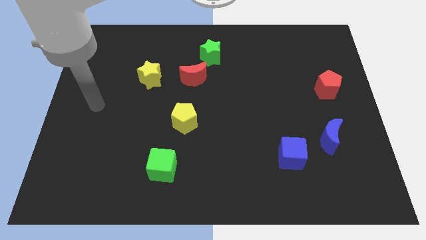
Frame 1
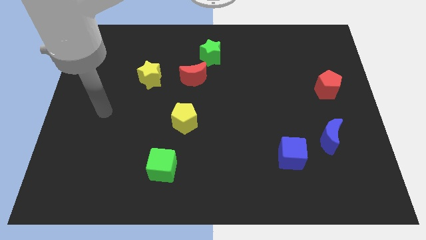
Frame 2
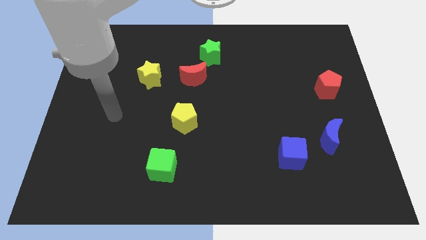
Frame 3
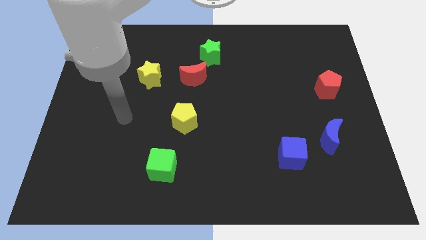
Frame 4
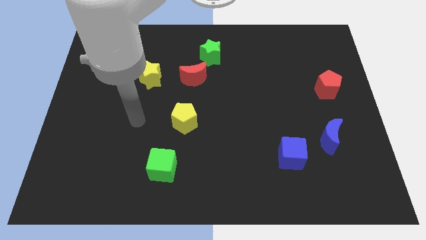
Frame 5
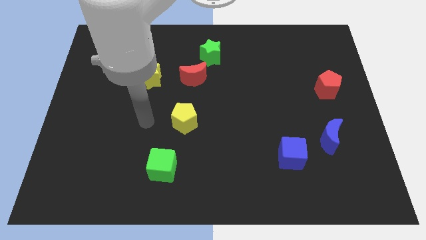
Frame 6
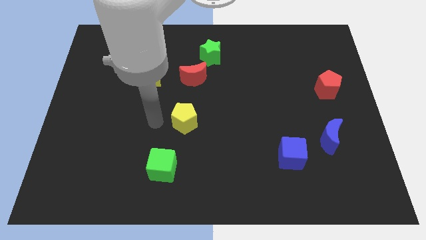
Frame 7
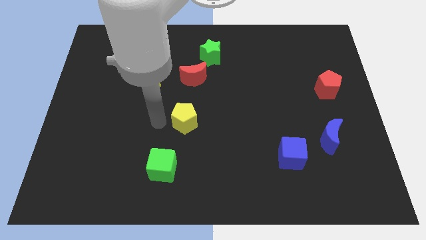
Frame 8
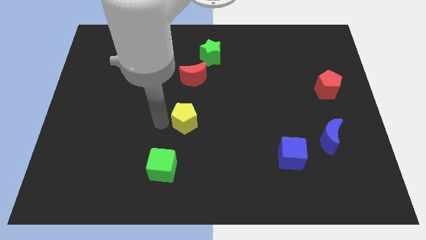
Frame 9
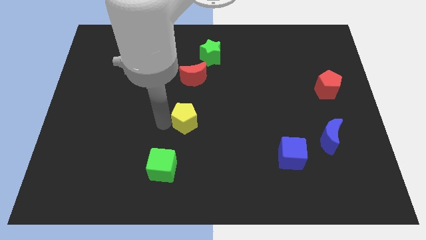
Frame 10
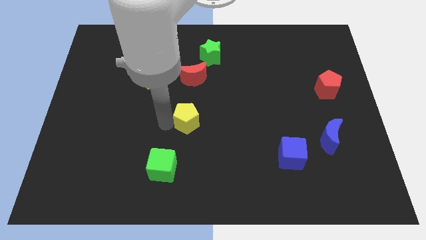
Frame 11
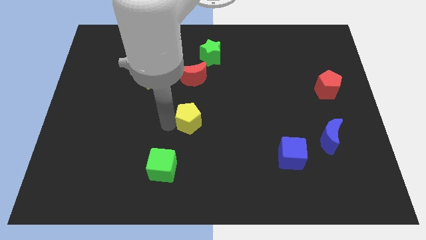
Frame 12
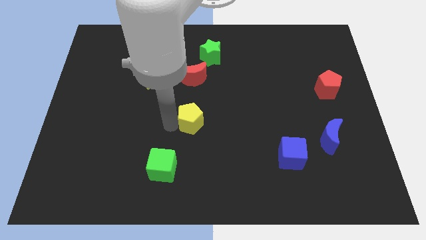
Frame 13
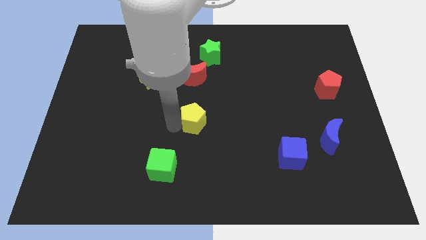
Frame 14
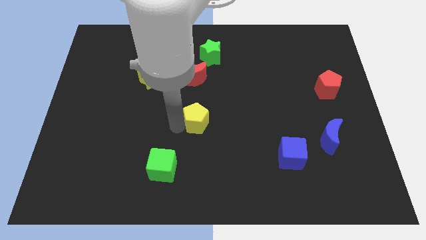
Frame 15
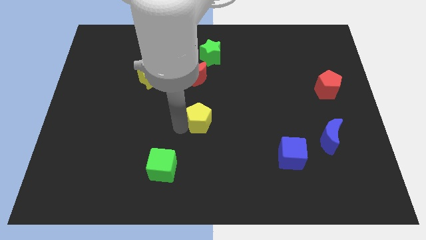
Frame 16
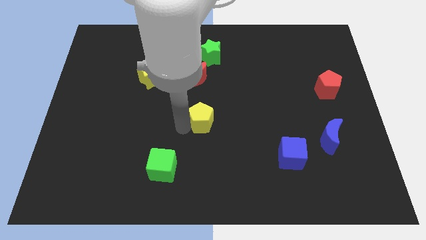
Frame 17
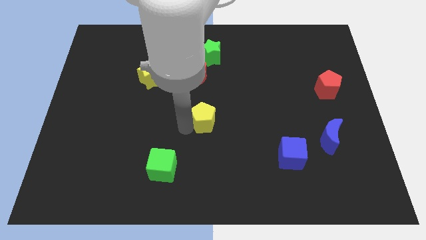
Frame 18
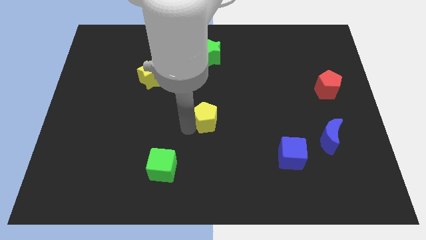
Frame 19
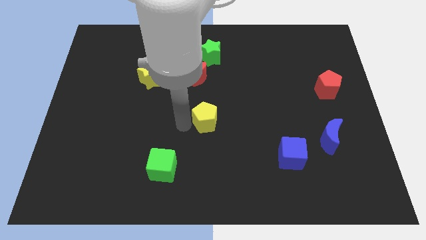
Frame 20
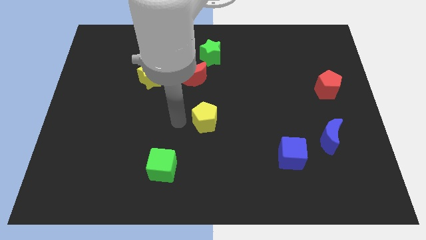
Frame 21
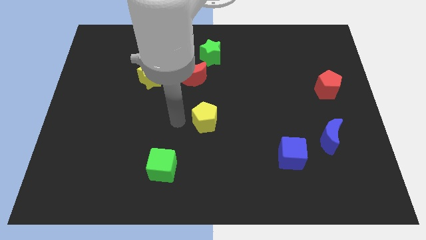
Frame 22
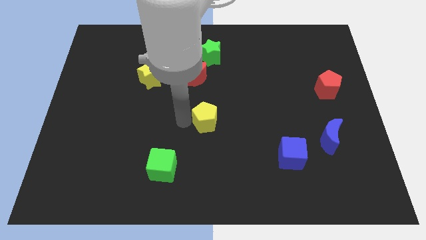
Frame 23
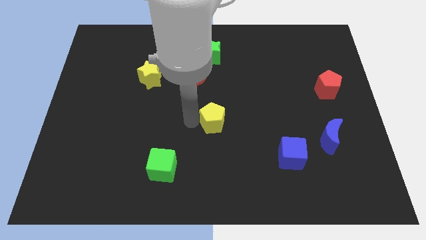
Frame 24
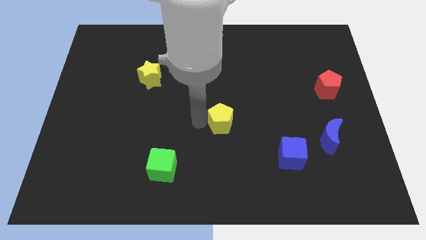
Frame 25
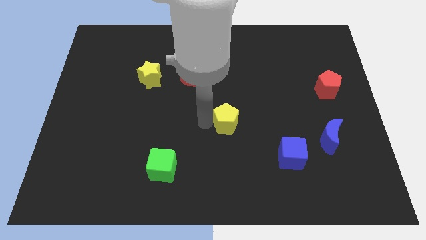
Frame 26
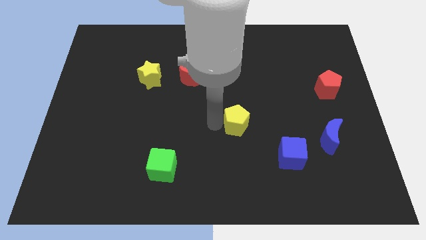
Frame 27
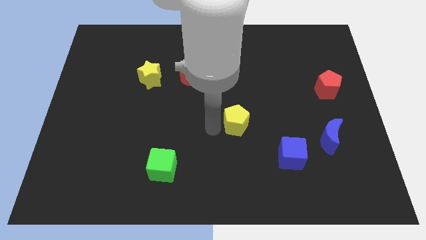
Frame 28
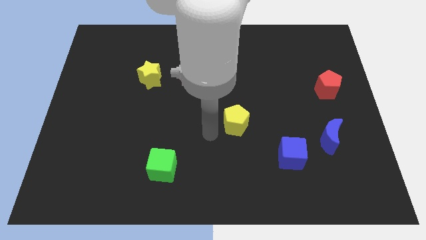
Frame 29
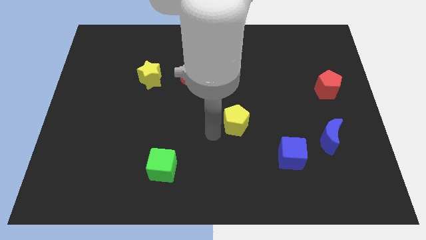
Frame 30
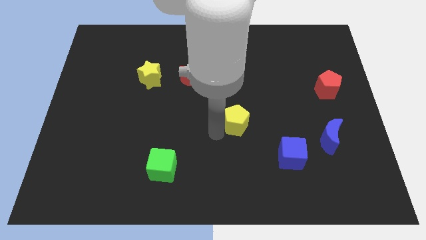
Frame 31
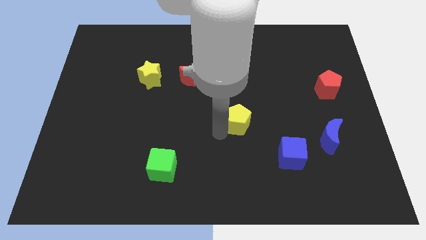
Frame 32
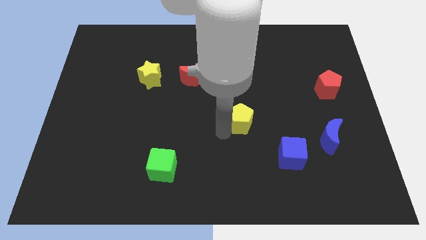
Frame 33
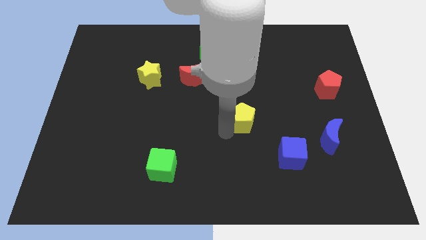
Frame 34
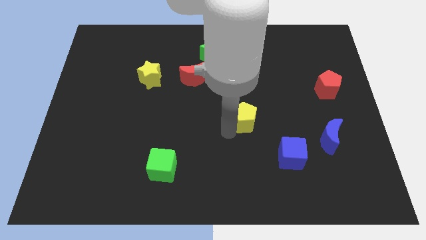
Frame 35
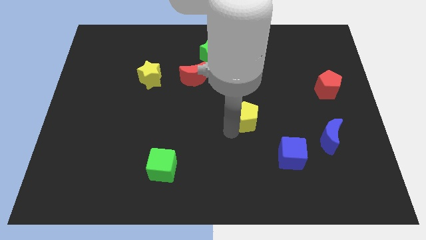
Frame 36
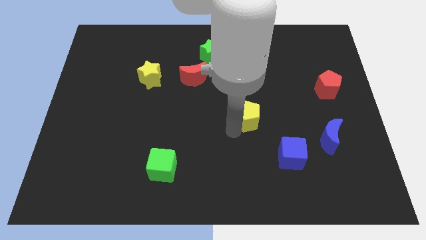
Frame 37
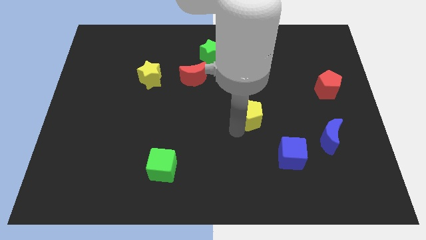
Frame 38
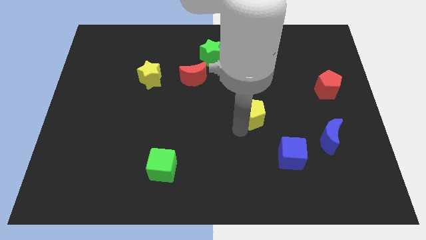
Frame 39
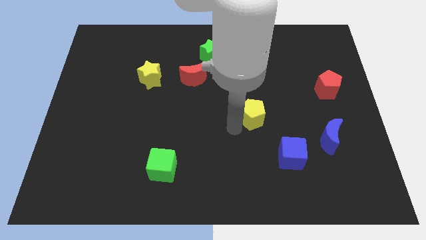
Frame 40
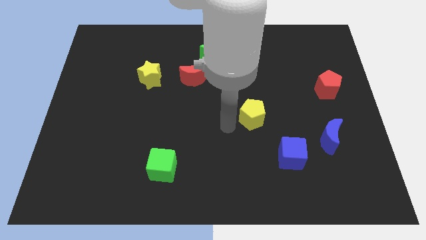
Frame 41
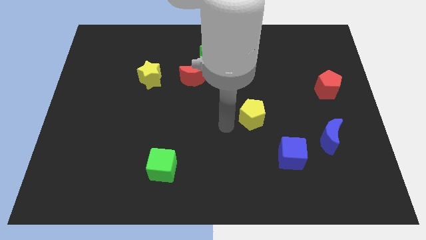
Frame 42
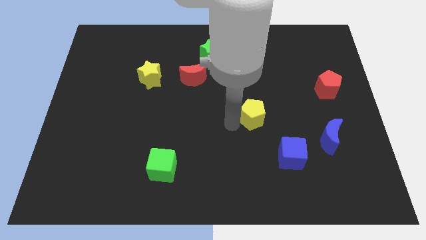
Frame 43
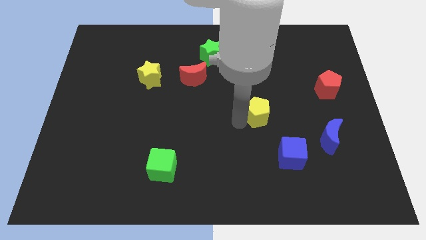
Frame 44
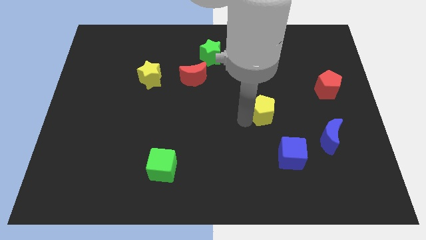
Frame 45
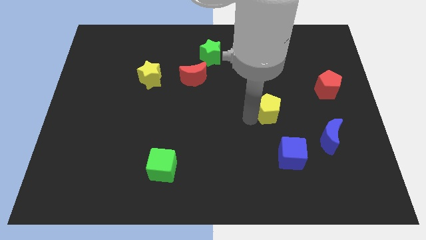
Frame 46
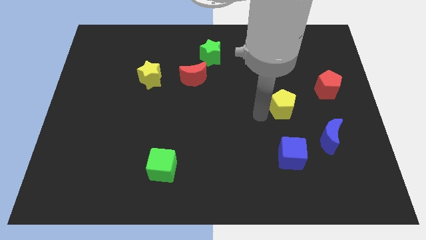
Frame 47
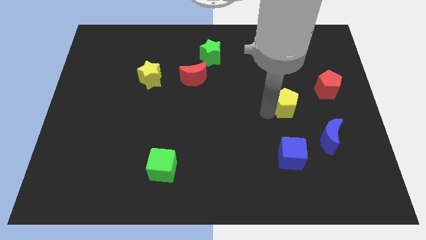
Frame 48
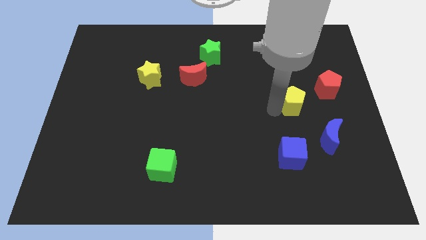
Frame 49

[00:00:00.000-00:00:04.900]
move the yellow pentagon diagonally down and to the left of the red pentagon

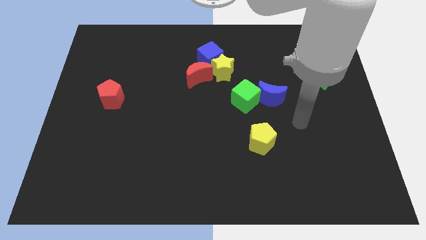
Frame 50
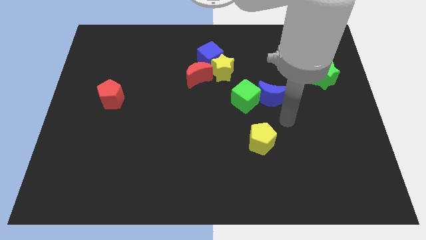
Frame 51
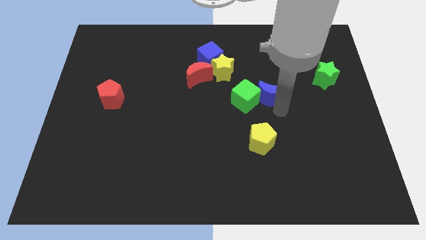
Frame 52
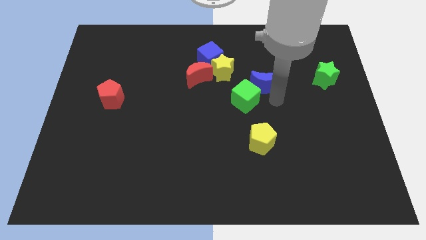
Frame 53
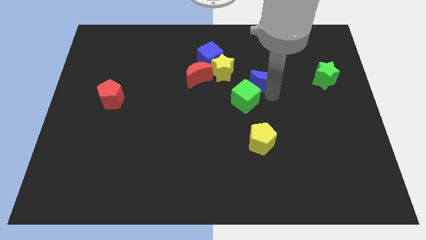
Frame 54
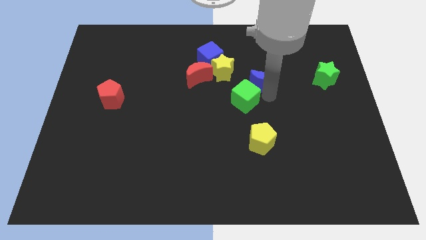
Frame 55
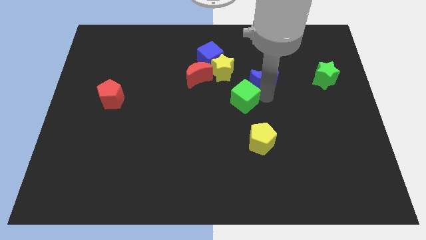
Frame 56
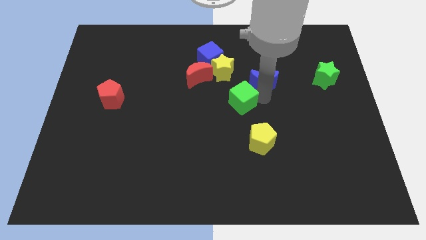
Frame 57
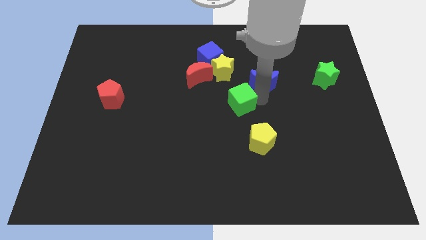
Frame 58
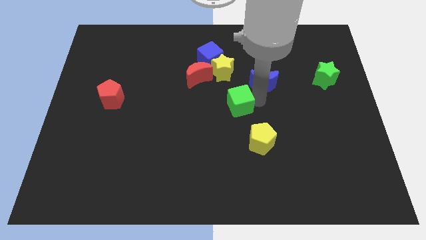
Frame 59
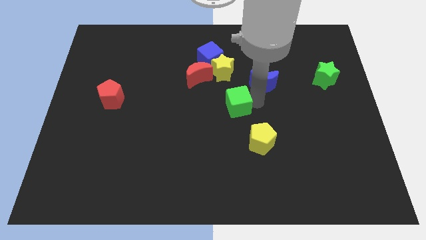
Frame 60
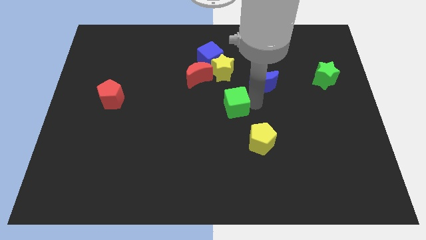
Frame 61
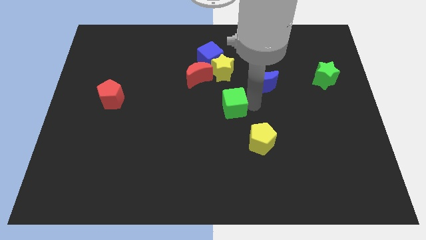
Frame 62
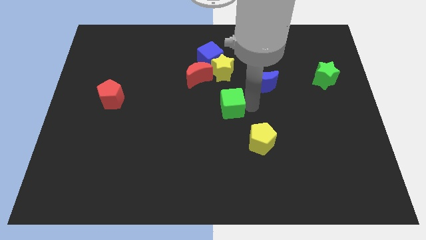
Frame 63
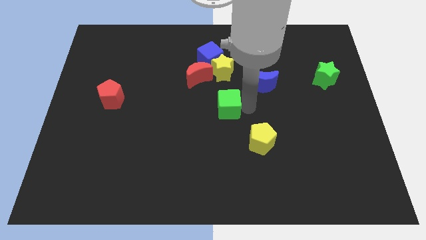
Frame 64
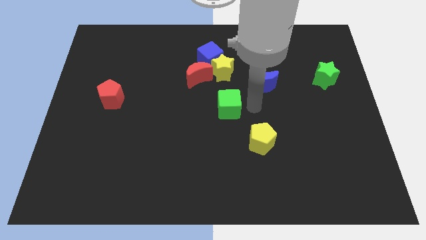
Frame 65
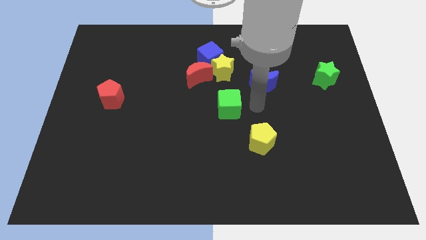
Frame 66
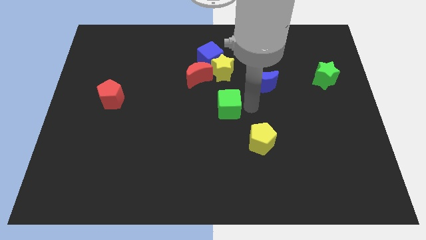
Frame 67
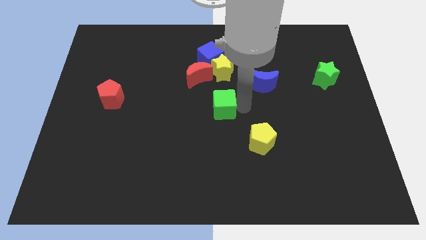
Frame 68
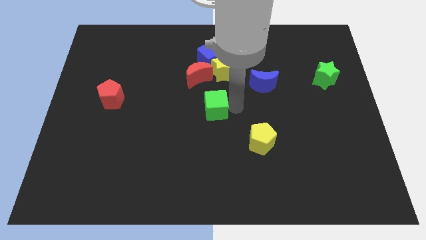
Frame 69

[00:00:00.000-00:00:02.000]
put the green cube to the bottom side of the red moon

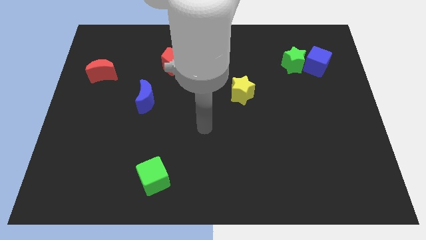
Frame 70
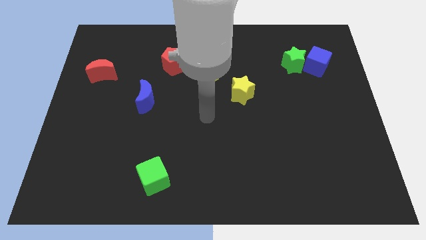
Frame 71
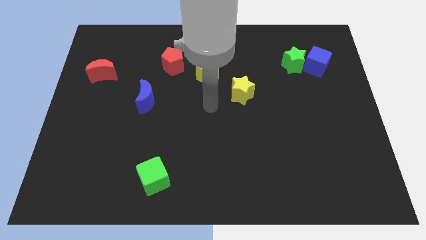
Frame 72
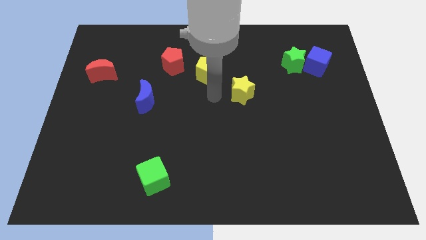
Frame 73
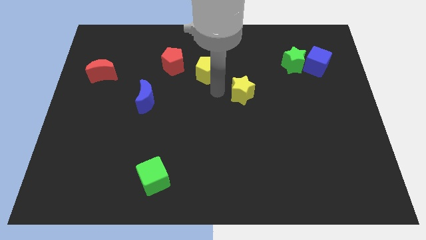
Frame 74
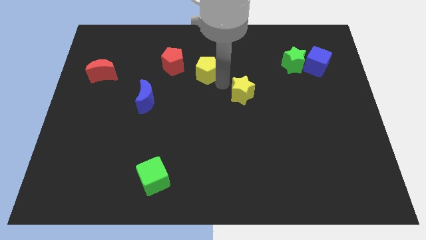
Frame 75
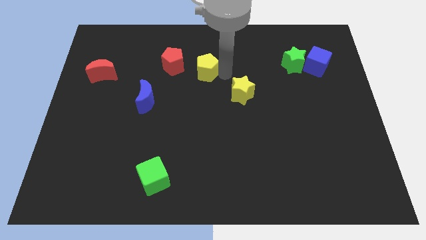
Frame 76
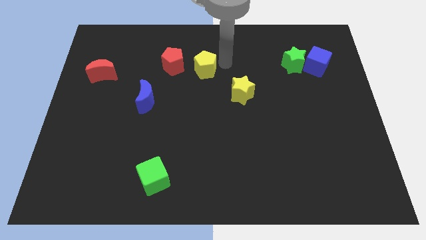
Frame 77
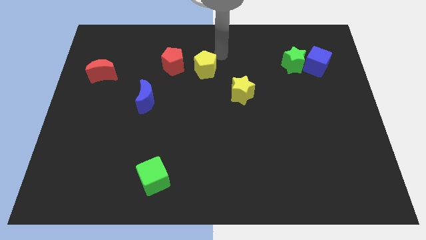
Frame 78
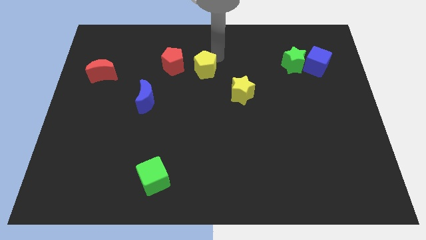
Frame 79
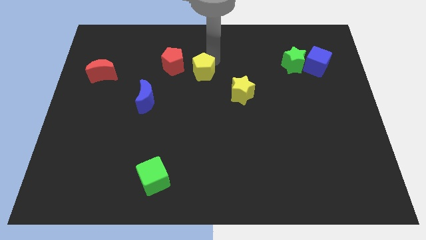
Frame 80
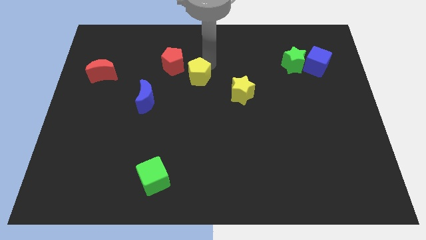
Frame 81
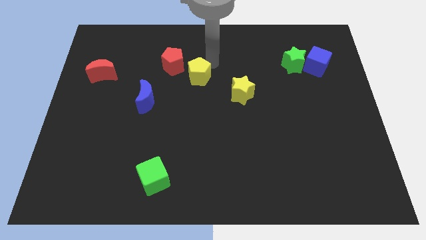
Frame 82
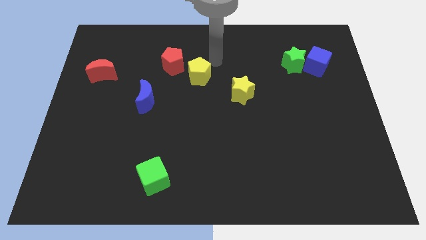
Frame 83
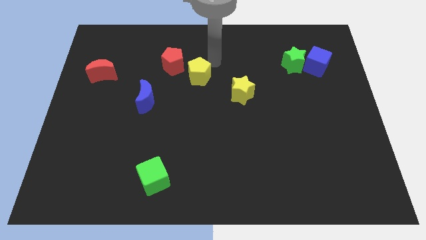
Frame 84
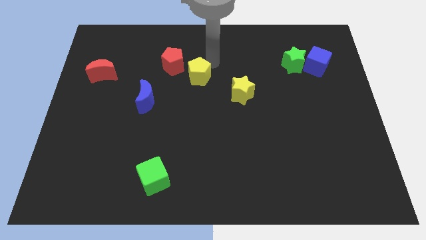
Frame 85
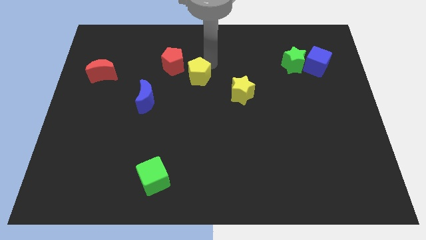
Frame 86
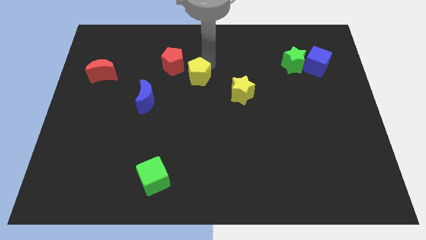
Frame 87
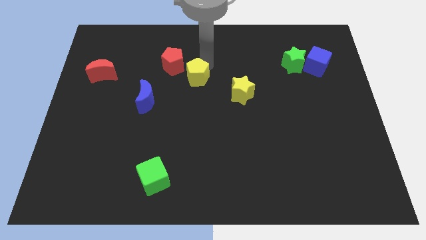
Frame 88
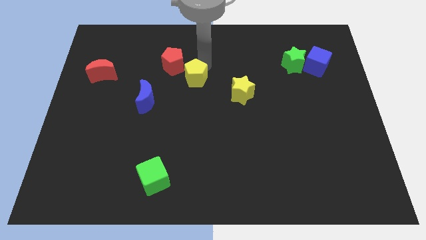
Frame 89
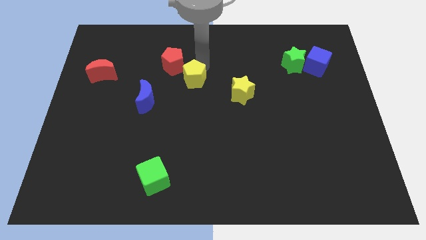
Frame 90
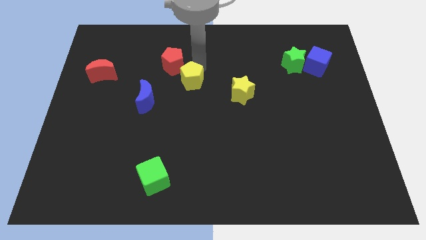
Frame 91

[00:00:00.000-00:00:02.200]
move the yellow pentagon to the bottom side of the red pentagon
